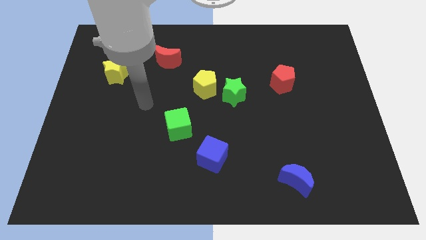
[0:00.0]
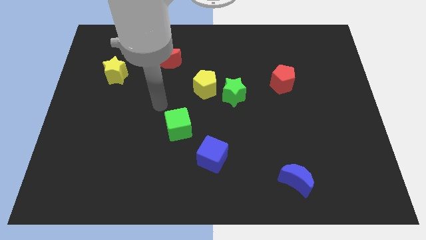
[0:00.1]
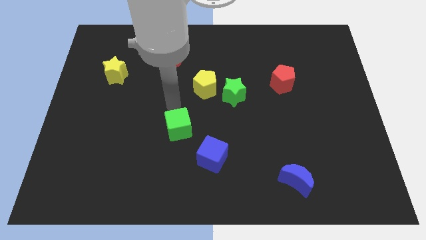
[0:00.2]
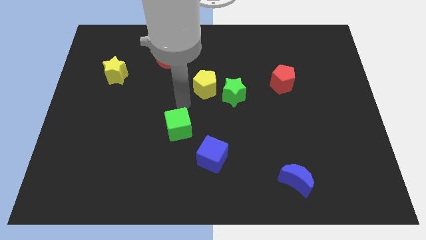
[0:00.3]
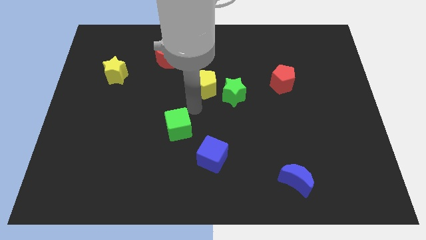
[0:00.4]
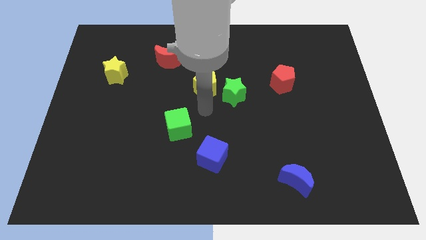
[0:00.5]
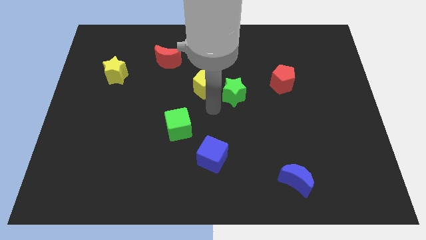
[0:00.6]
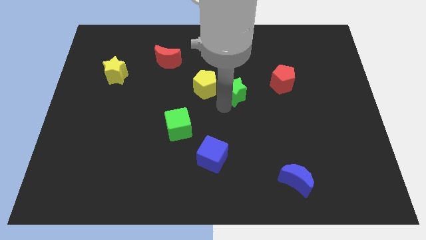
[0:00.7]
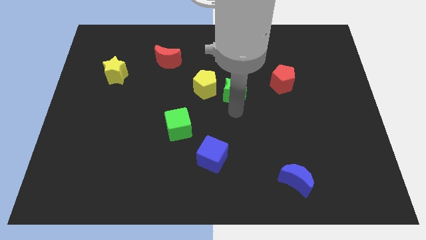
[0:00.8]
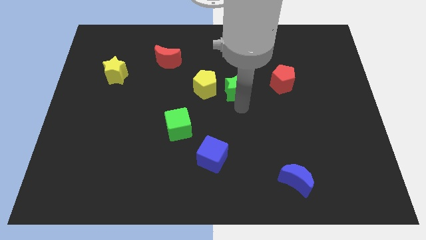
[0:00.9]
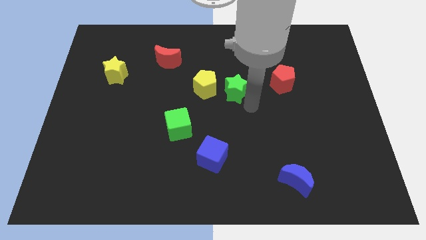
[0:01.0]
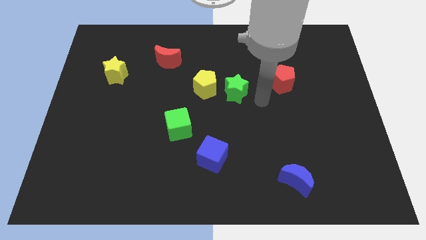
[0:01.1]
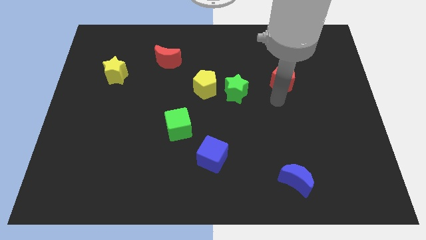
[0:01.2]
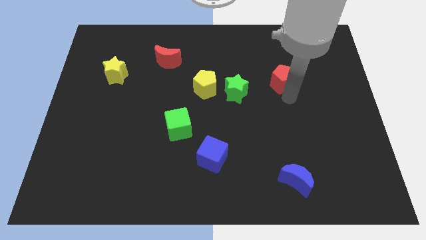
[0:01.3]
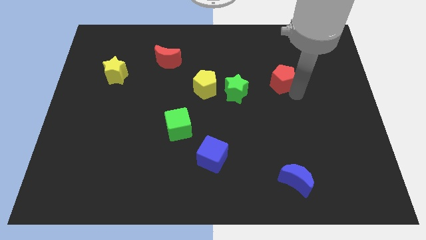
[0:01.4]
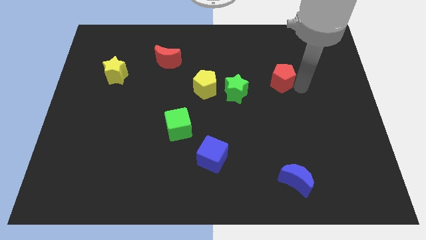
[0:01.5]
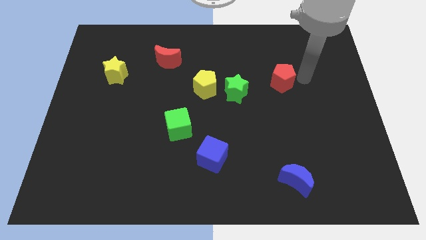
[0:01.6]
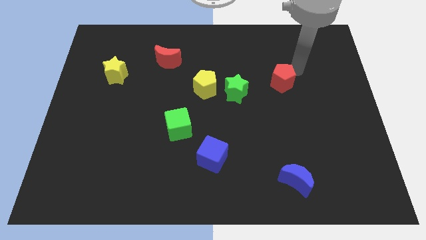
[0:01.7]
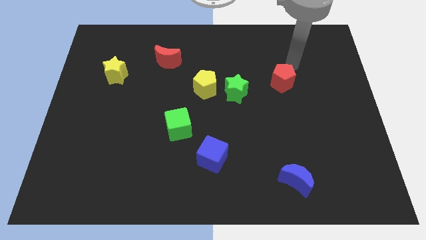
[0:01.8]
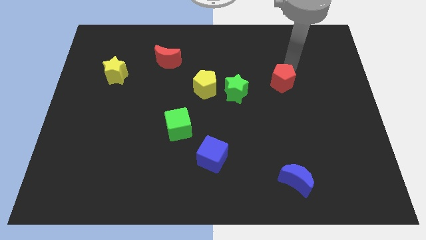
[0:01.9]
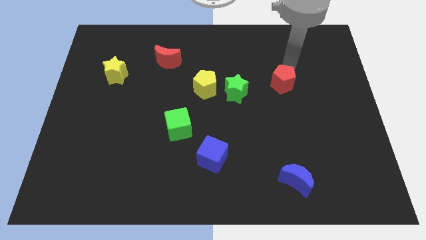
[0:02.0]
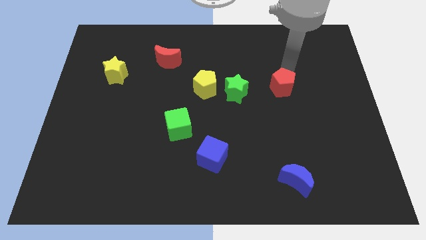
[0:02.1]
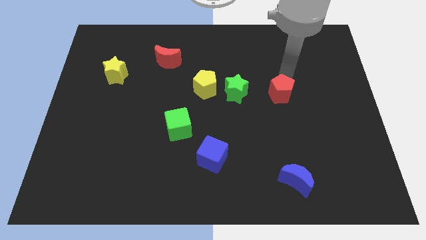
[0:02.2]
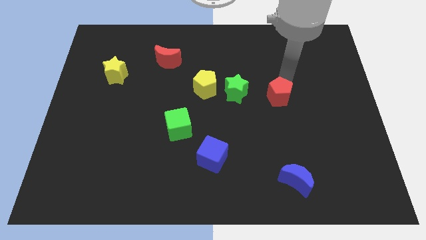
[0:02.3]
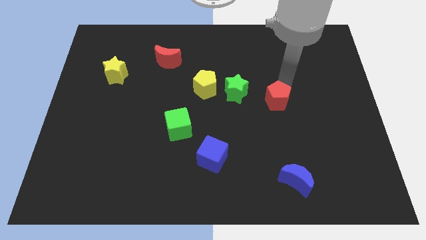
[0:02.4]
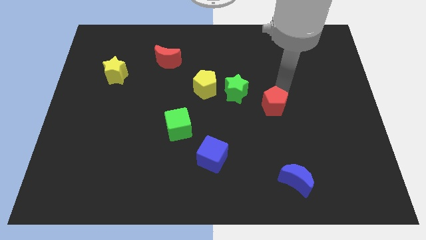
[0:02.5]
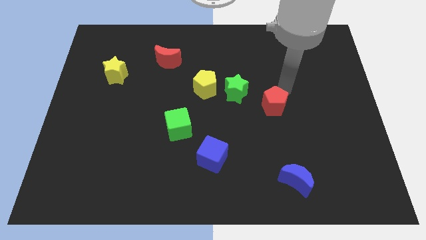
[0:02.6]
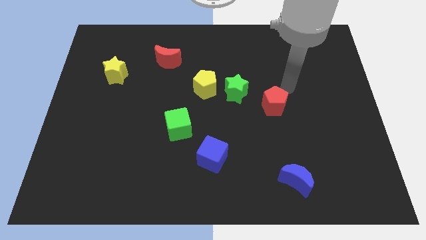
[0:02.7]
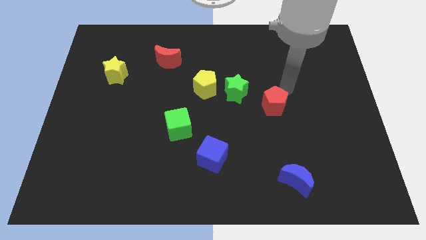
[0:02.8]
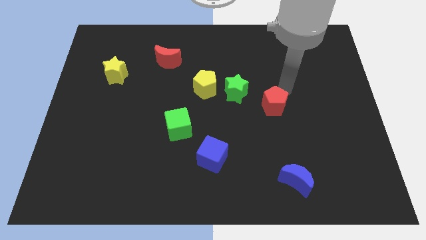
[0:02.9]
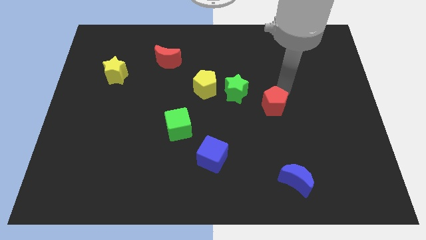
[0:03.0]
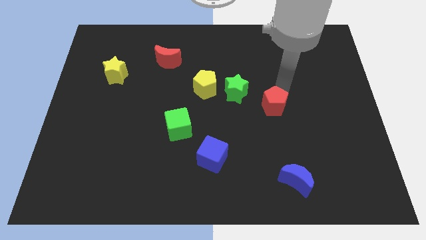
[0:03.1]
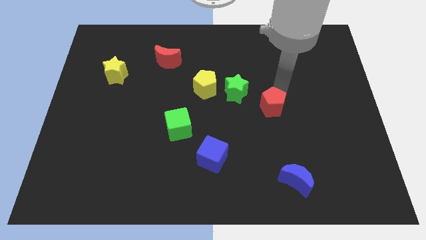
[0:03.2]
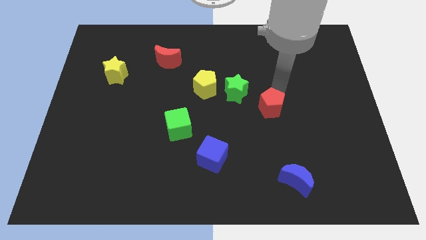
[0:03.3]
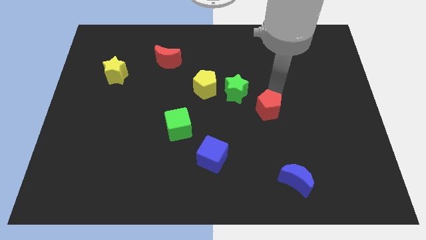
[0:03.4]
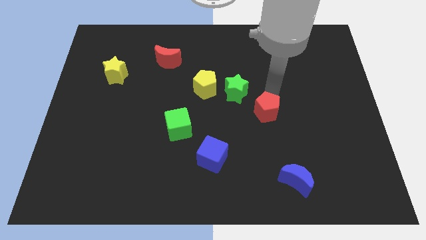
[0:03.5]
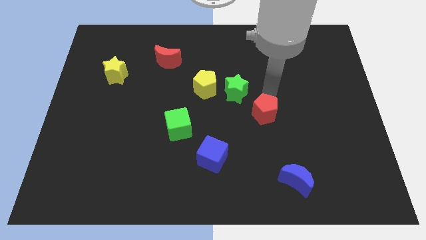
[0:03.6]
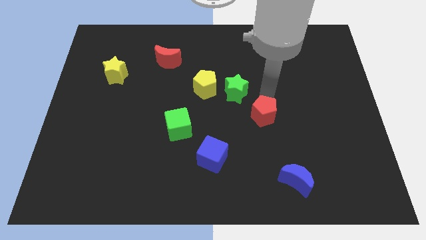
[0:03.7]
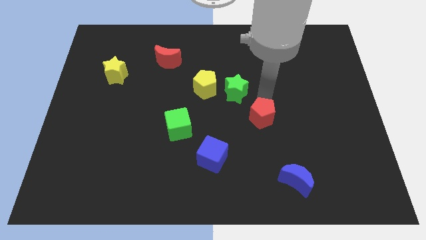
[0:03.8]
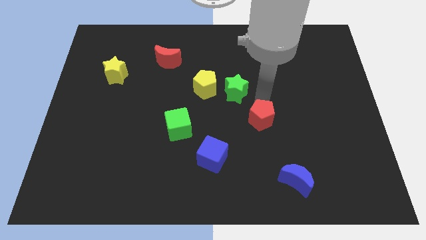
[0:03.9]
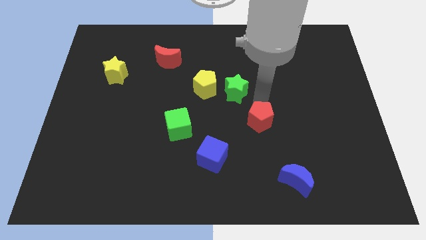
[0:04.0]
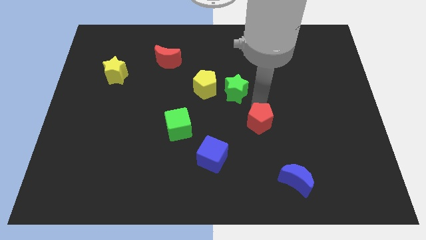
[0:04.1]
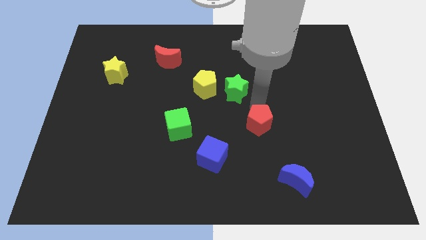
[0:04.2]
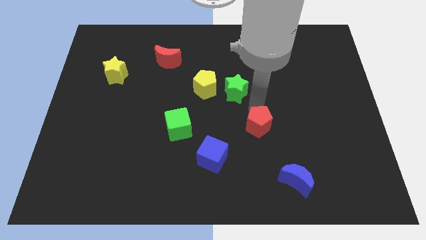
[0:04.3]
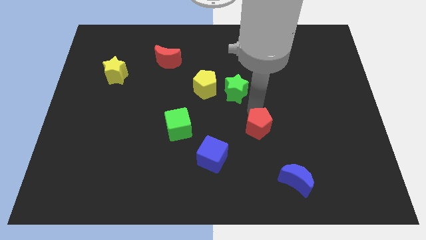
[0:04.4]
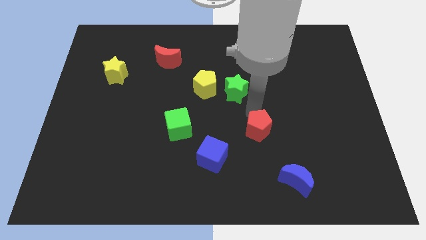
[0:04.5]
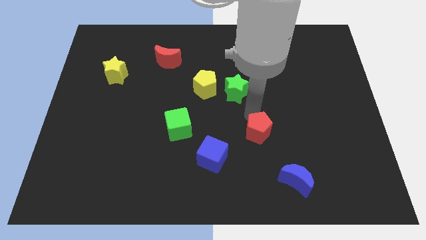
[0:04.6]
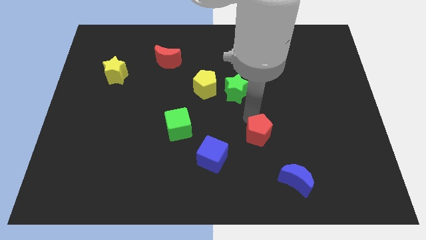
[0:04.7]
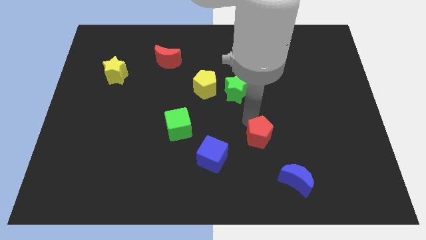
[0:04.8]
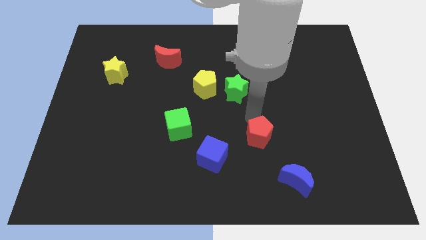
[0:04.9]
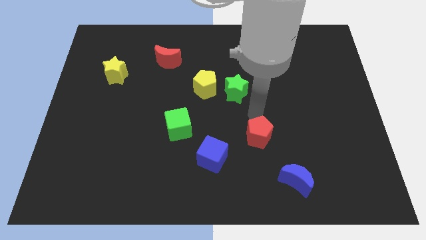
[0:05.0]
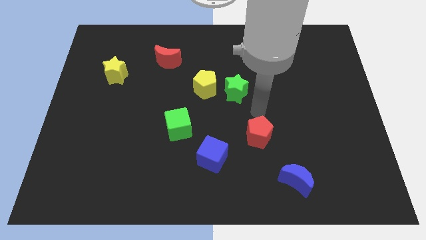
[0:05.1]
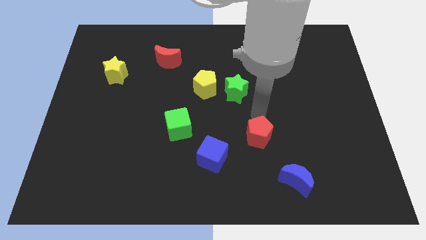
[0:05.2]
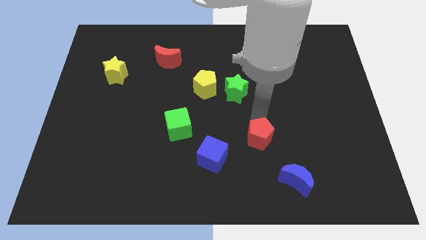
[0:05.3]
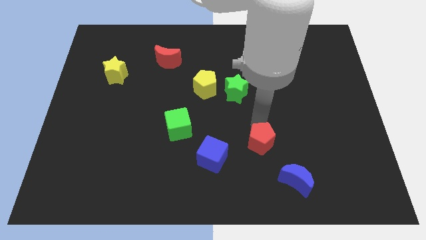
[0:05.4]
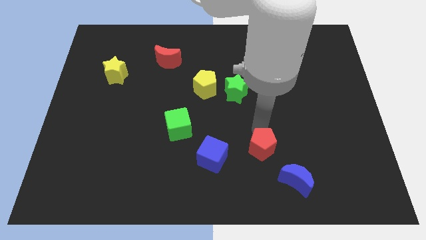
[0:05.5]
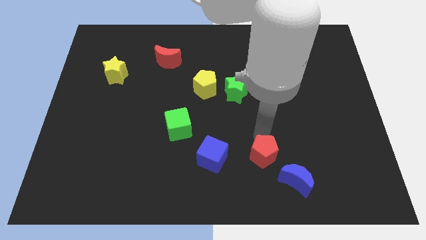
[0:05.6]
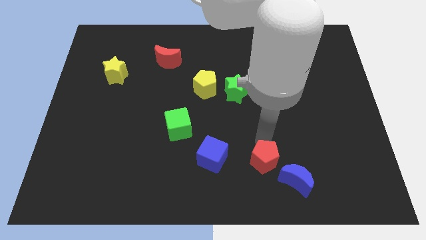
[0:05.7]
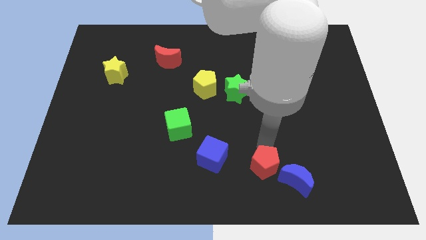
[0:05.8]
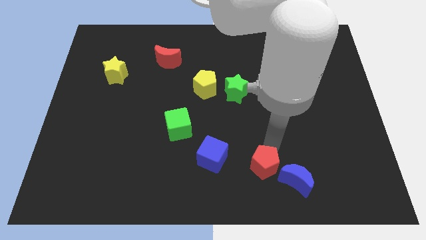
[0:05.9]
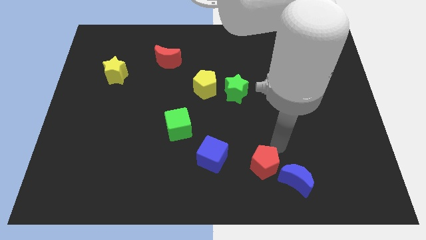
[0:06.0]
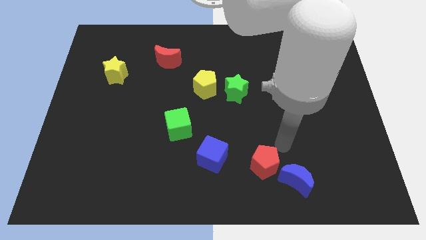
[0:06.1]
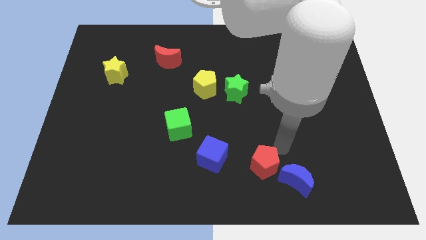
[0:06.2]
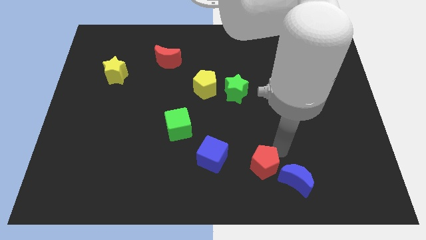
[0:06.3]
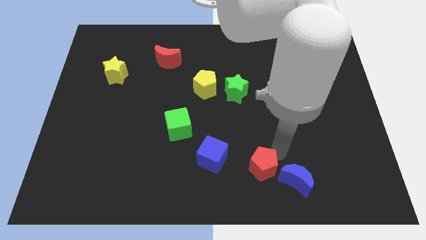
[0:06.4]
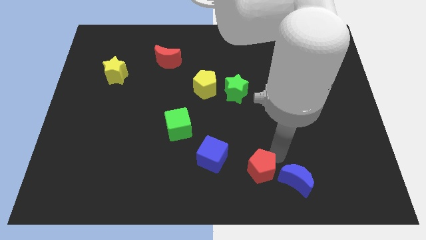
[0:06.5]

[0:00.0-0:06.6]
move the red pentagon to the bottom side

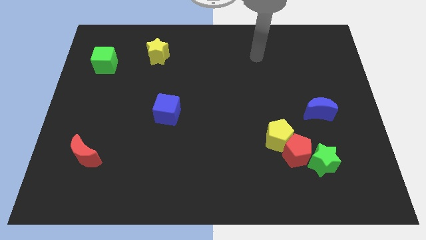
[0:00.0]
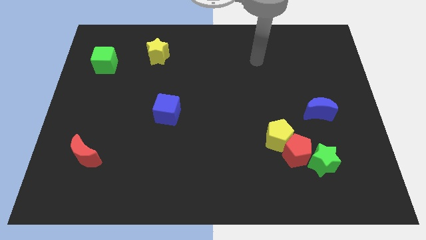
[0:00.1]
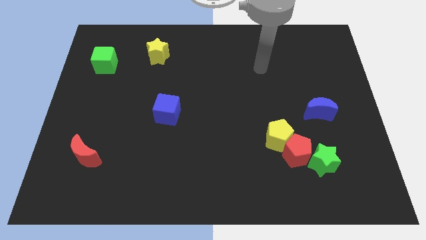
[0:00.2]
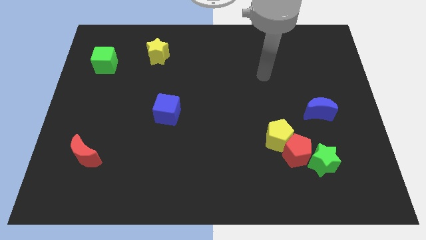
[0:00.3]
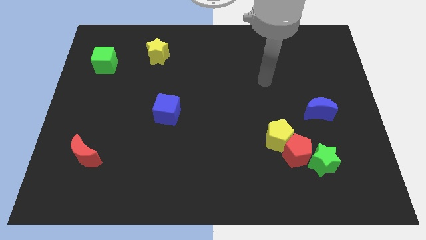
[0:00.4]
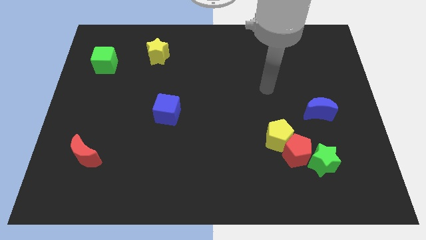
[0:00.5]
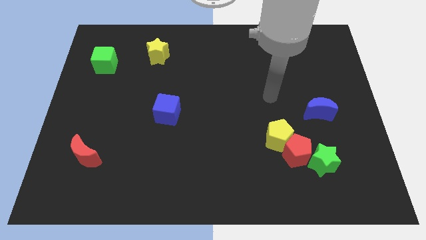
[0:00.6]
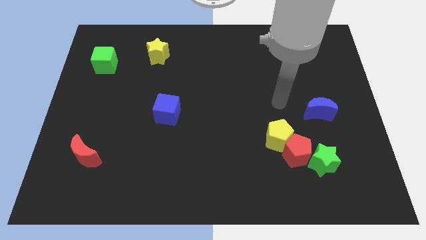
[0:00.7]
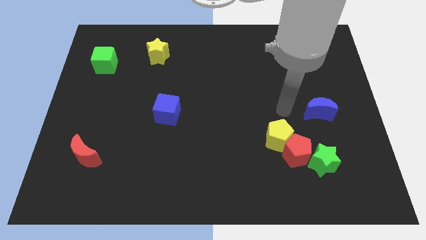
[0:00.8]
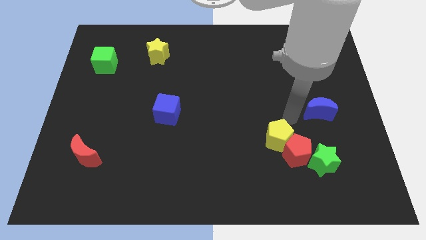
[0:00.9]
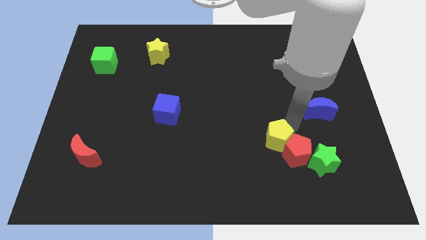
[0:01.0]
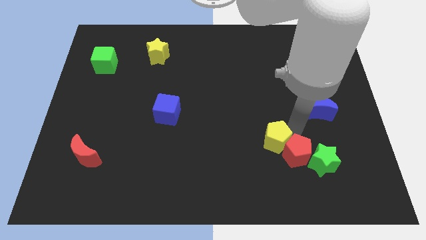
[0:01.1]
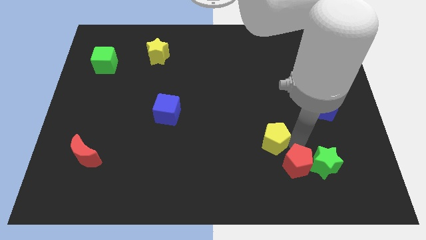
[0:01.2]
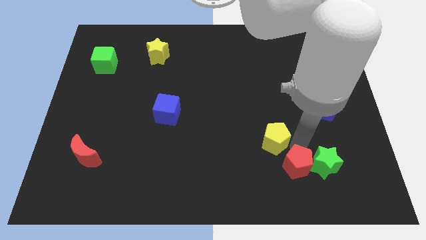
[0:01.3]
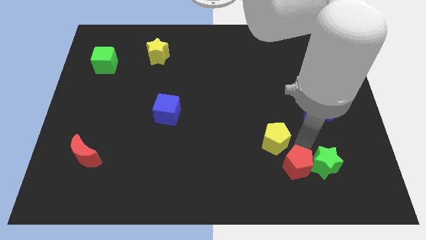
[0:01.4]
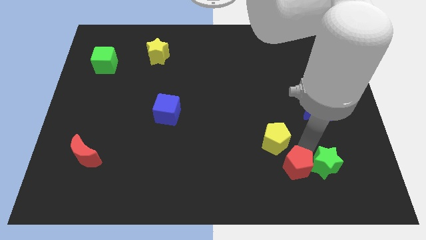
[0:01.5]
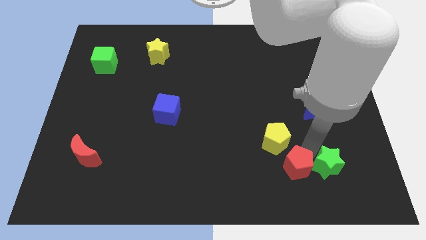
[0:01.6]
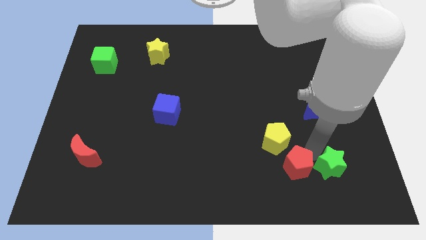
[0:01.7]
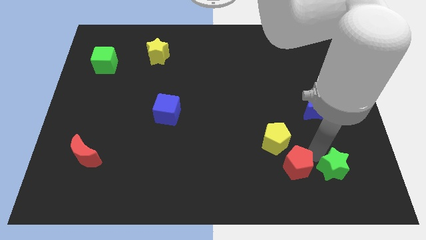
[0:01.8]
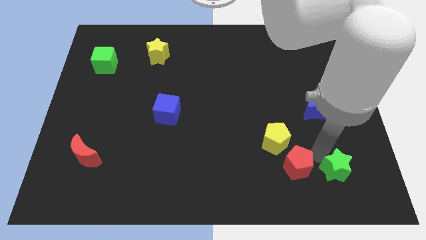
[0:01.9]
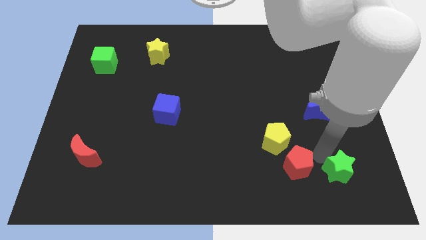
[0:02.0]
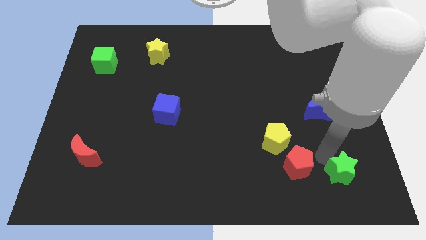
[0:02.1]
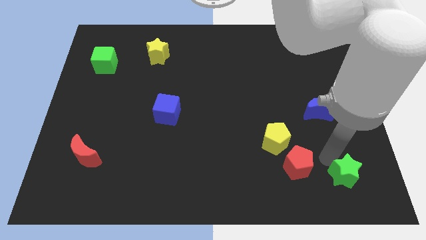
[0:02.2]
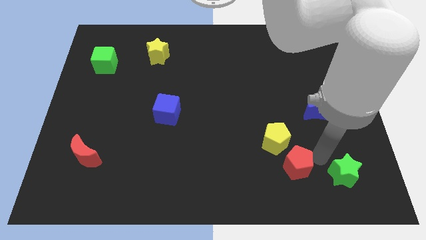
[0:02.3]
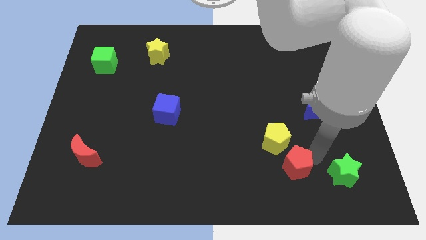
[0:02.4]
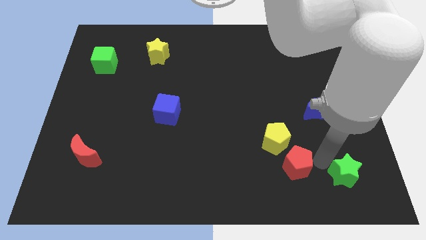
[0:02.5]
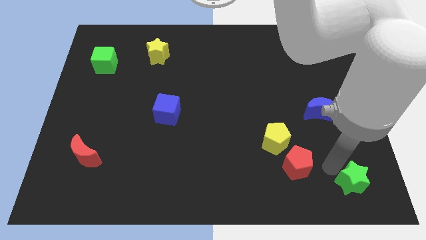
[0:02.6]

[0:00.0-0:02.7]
slide the green star to the bottom right
